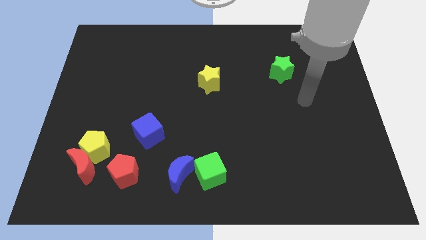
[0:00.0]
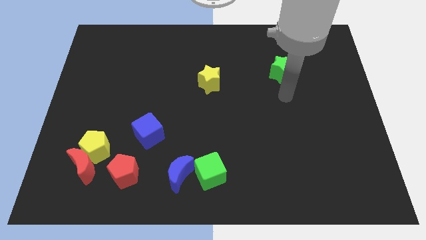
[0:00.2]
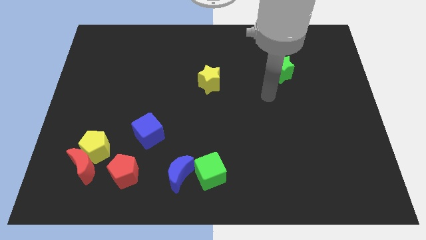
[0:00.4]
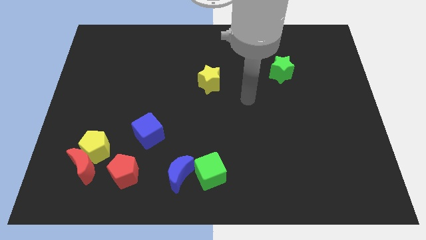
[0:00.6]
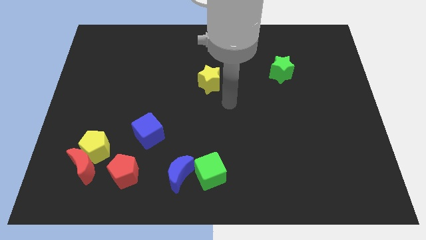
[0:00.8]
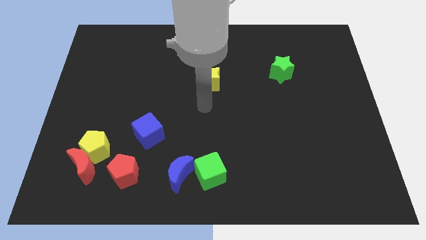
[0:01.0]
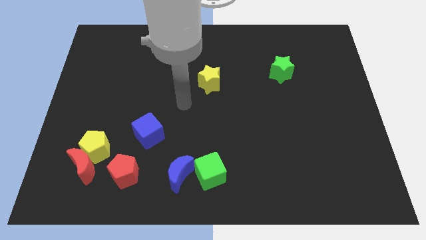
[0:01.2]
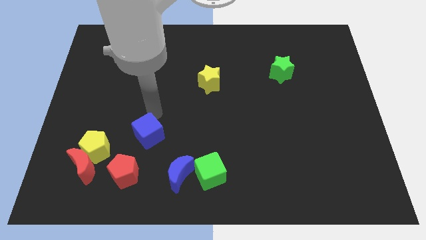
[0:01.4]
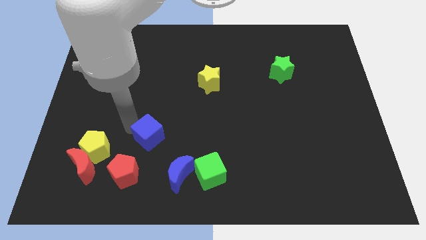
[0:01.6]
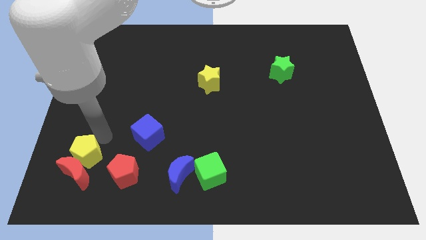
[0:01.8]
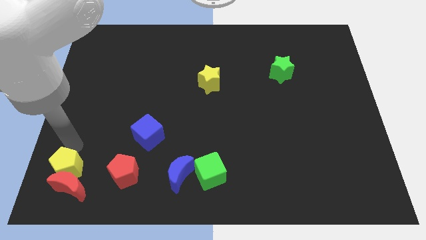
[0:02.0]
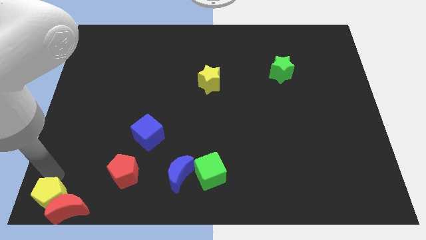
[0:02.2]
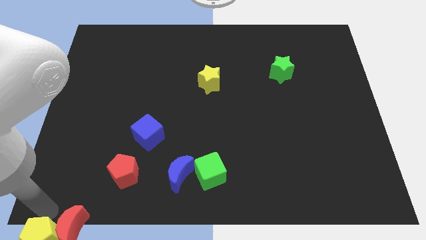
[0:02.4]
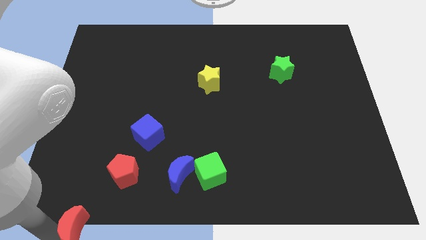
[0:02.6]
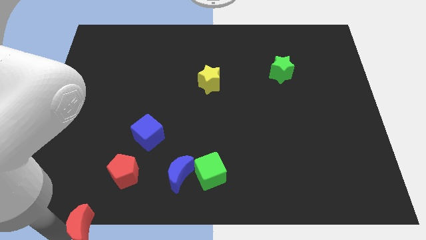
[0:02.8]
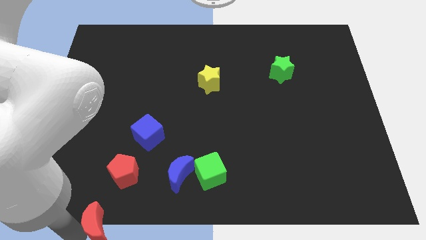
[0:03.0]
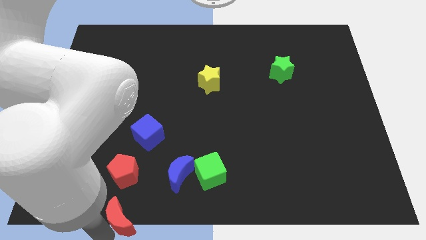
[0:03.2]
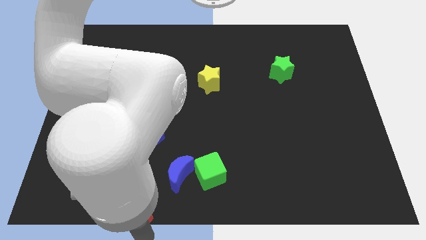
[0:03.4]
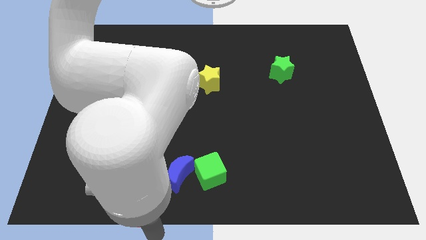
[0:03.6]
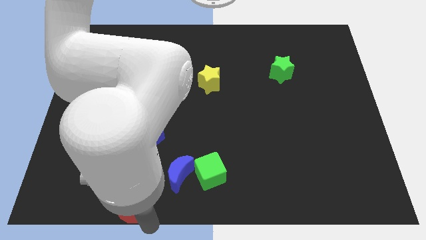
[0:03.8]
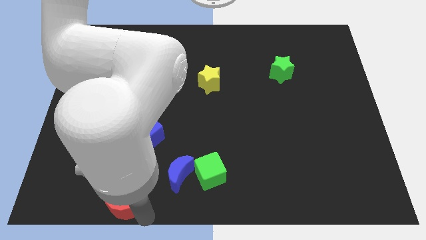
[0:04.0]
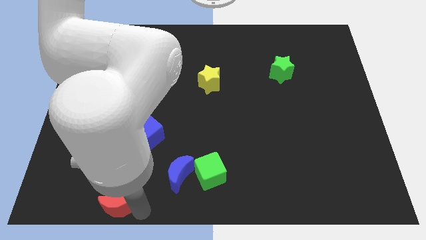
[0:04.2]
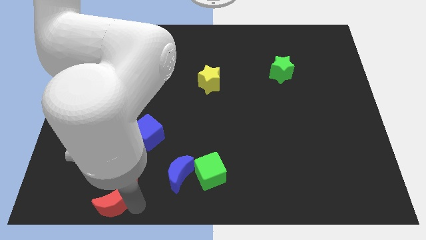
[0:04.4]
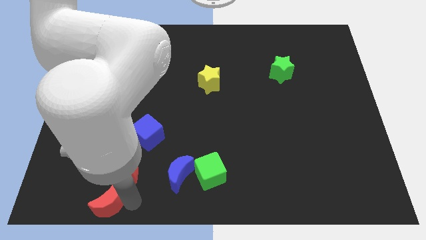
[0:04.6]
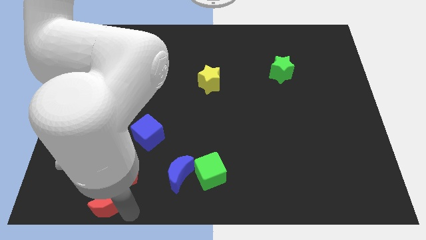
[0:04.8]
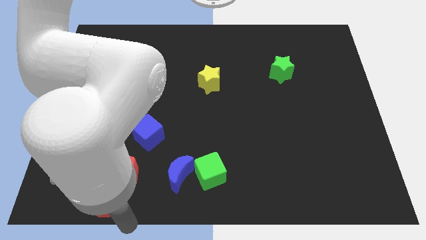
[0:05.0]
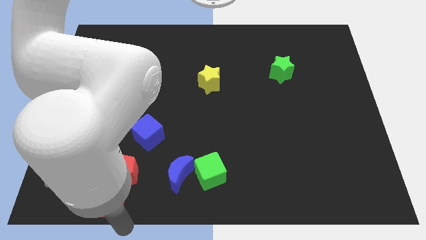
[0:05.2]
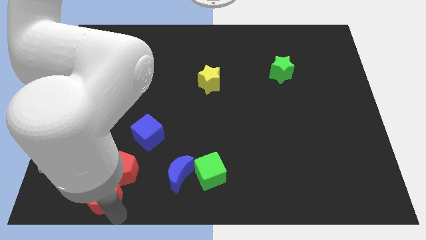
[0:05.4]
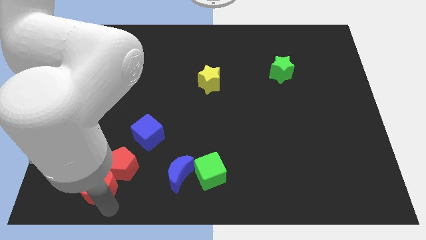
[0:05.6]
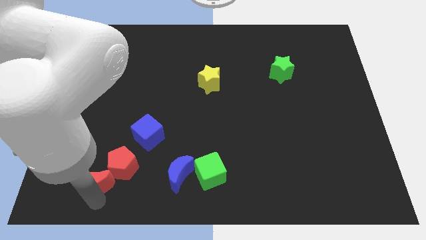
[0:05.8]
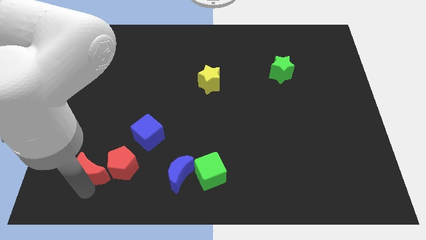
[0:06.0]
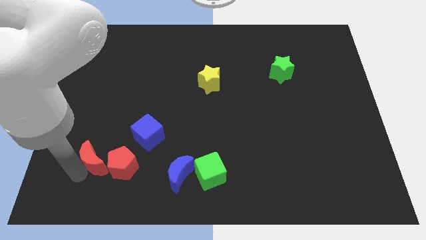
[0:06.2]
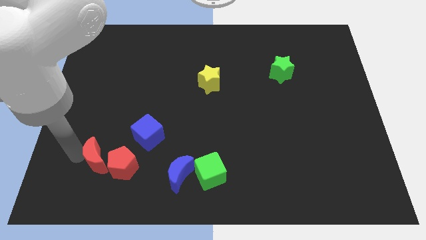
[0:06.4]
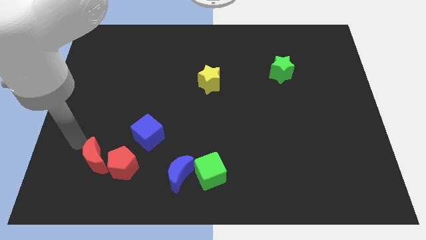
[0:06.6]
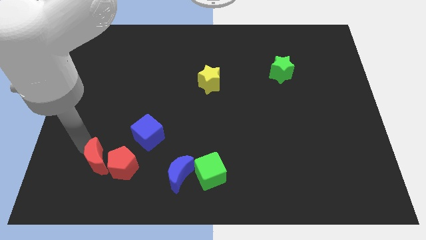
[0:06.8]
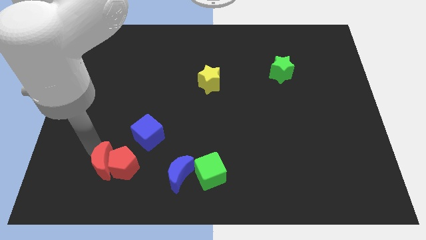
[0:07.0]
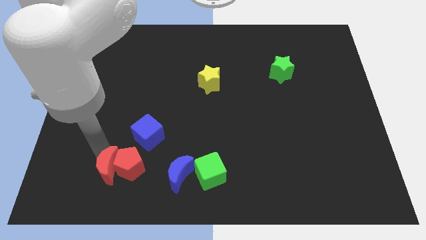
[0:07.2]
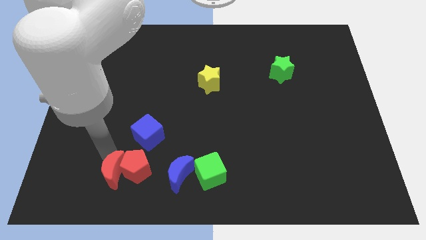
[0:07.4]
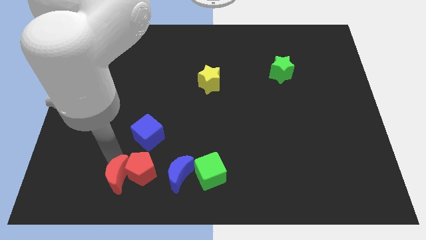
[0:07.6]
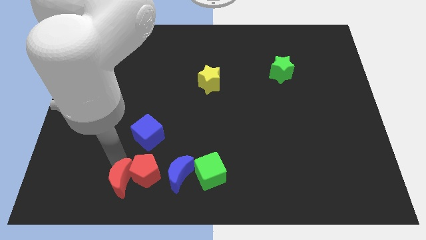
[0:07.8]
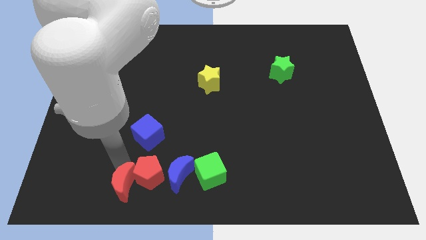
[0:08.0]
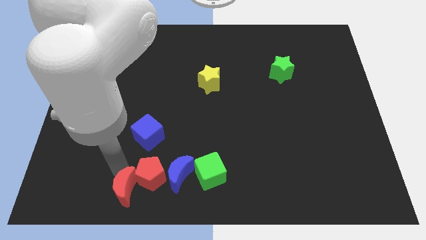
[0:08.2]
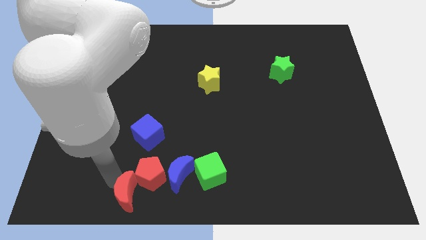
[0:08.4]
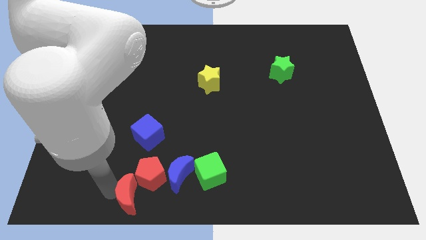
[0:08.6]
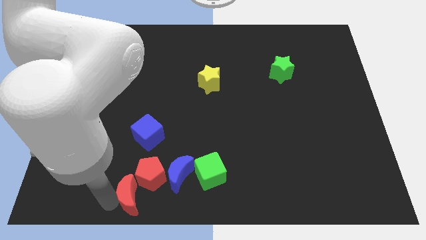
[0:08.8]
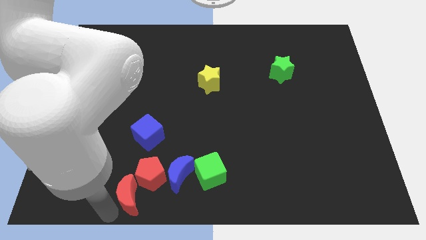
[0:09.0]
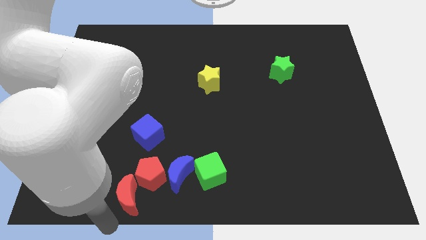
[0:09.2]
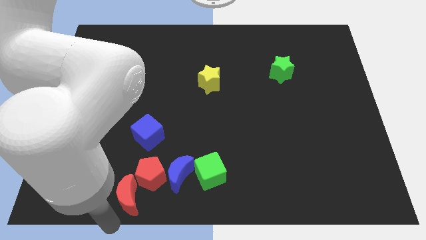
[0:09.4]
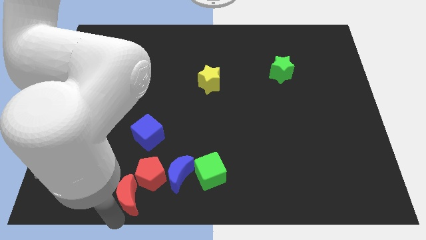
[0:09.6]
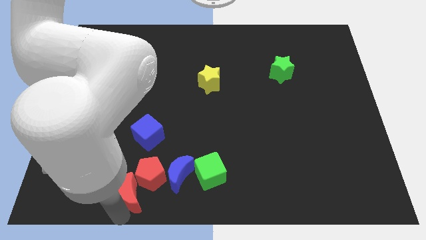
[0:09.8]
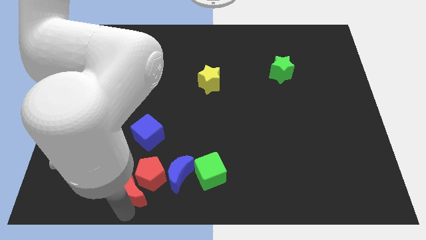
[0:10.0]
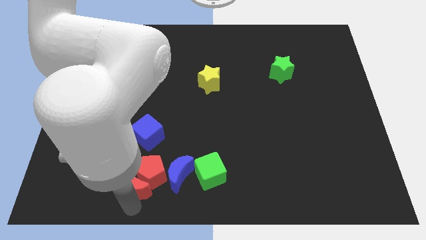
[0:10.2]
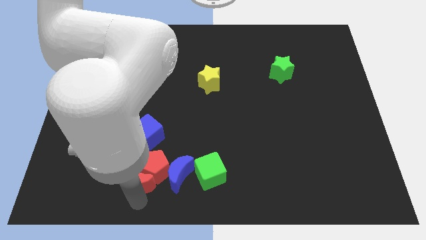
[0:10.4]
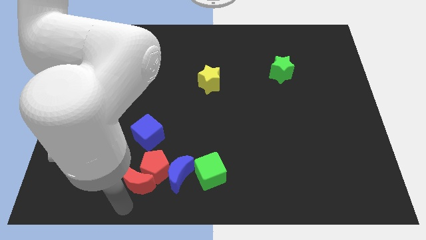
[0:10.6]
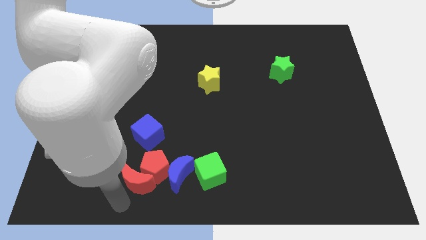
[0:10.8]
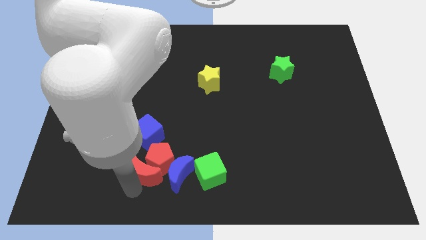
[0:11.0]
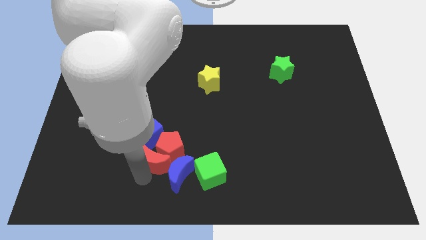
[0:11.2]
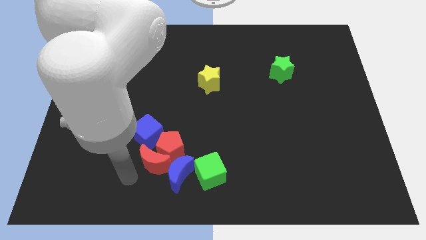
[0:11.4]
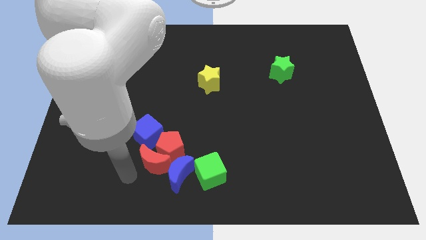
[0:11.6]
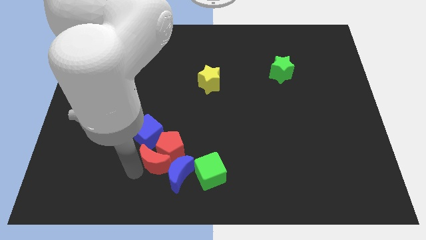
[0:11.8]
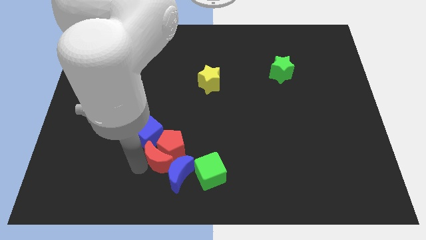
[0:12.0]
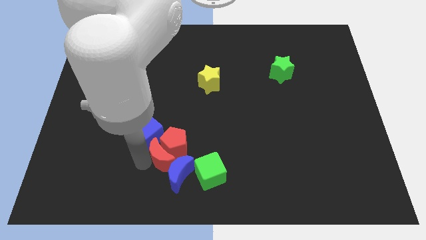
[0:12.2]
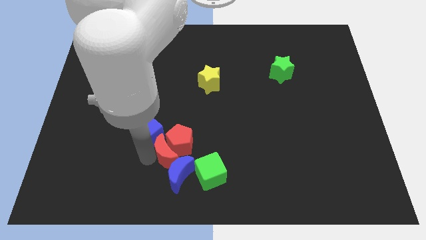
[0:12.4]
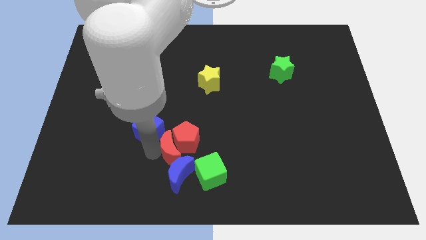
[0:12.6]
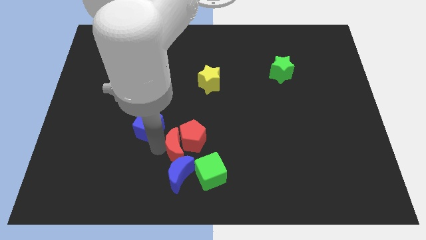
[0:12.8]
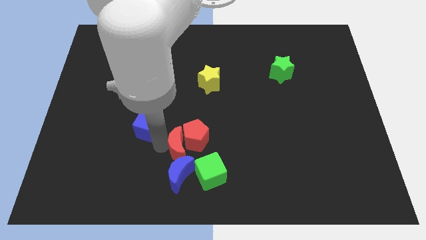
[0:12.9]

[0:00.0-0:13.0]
slide the red moon to the top right side of the blue moon

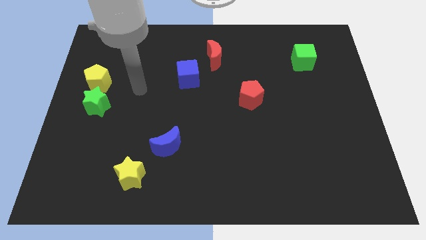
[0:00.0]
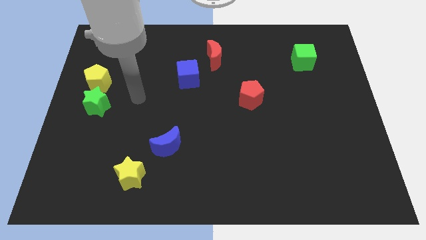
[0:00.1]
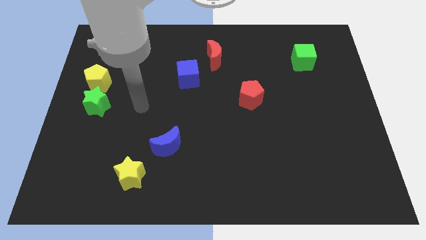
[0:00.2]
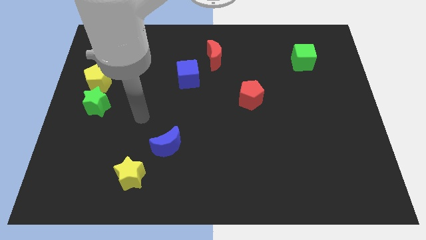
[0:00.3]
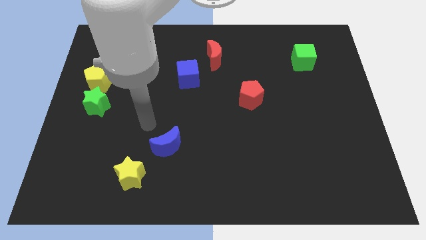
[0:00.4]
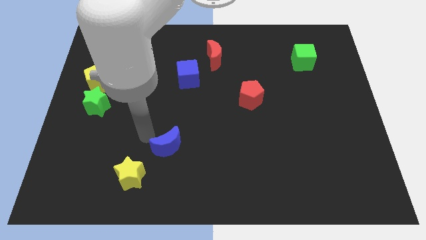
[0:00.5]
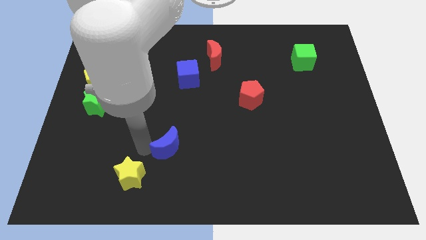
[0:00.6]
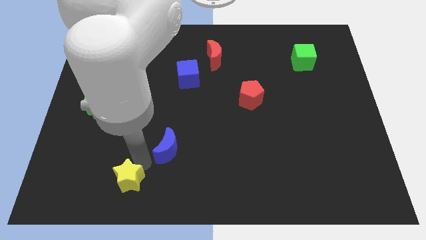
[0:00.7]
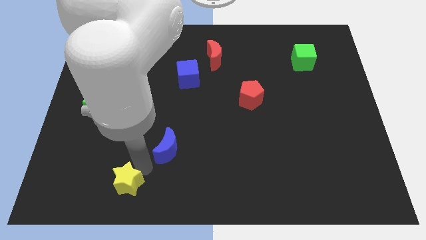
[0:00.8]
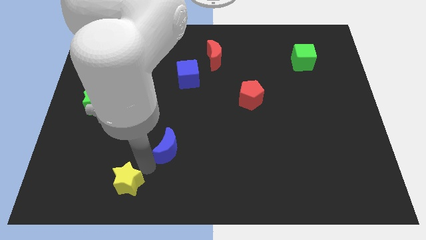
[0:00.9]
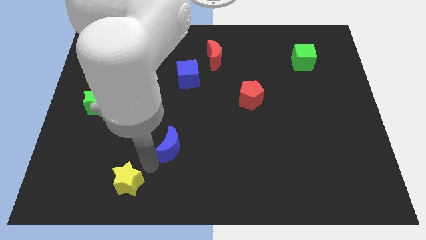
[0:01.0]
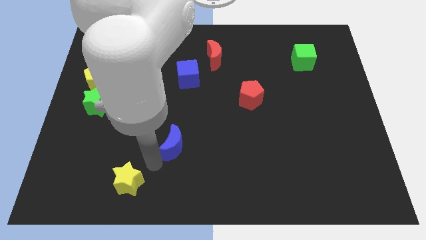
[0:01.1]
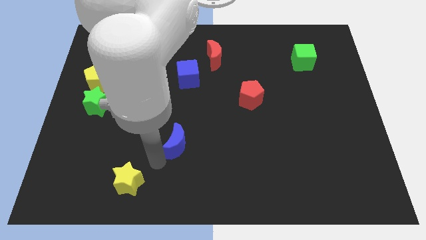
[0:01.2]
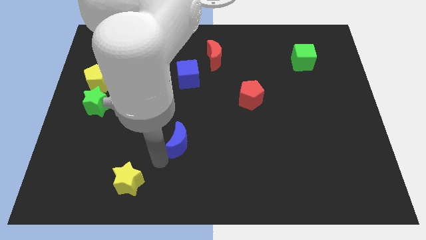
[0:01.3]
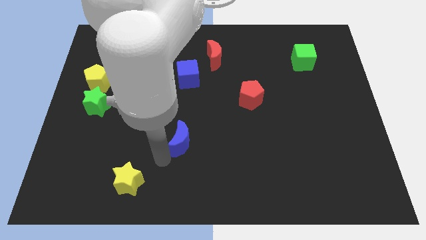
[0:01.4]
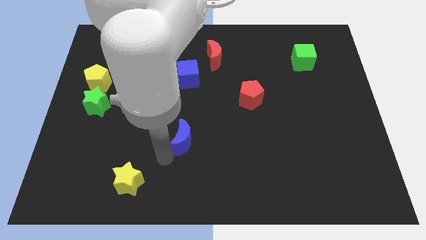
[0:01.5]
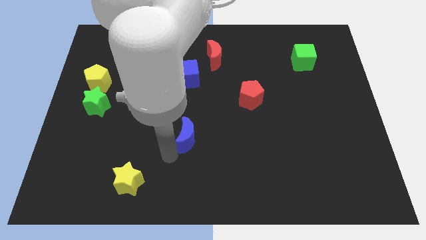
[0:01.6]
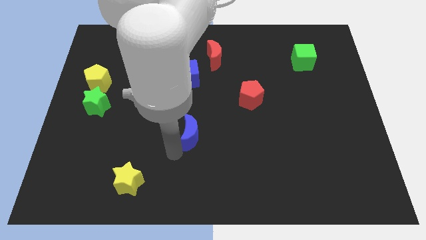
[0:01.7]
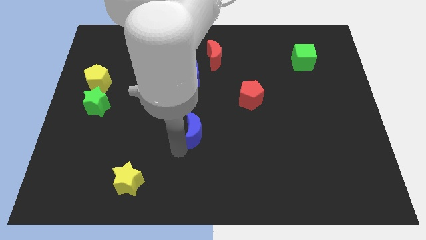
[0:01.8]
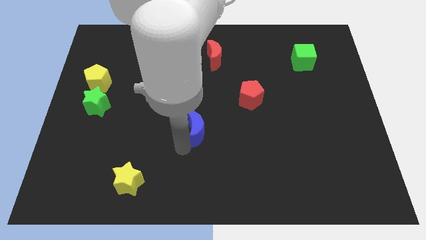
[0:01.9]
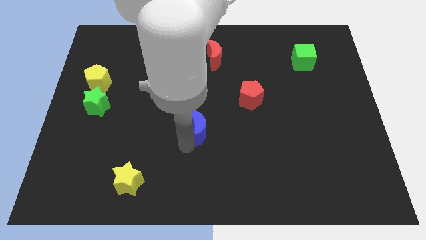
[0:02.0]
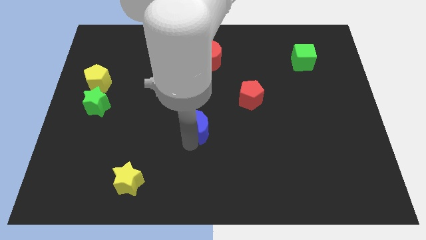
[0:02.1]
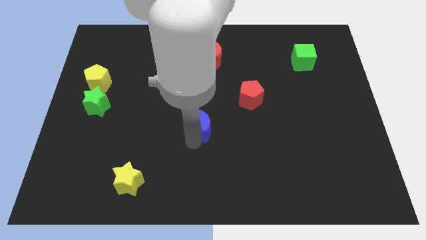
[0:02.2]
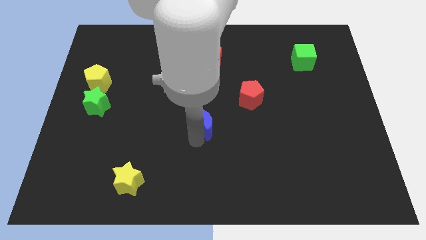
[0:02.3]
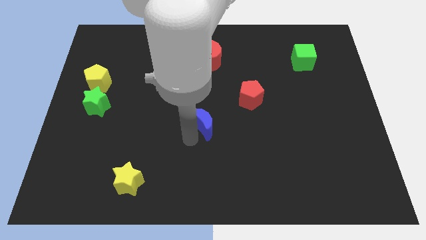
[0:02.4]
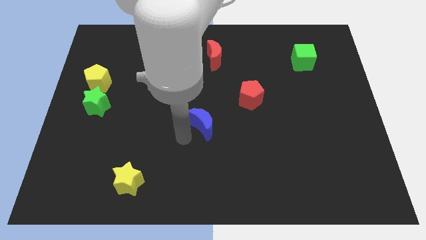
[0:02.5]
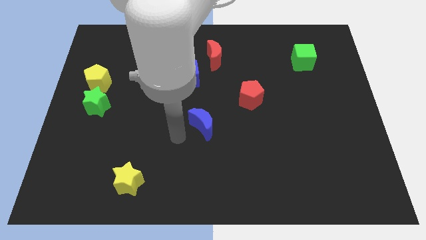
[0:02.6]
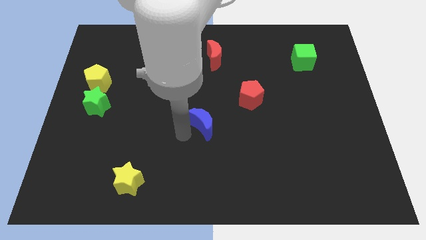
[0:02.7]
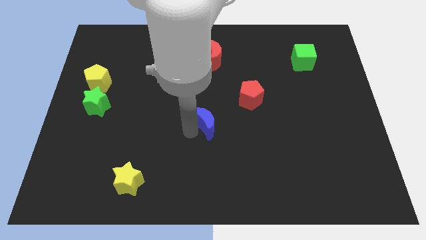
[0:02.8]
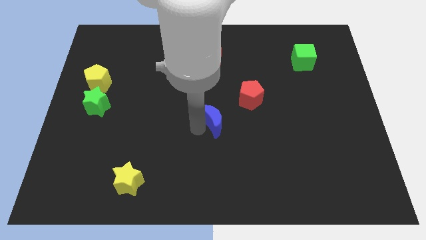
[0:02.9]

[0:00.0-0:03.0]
move the blue moon to the bottom left of the red pentagon
